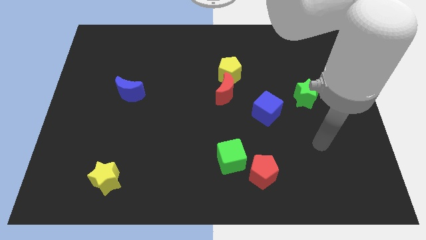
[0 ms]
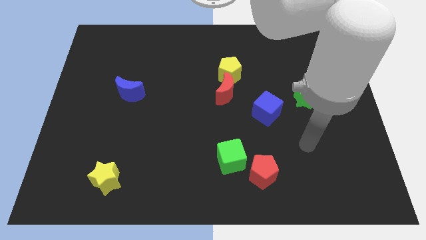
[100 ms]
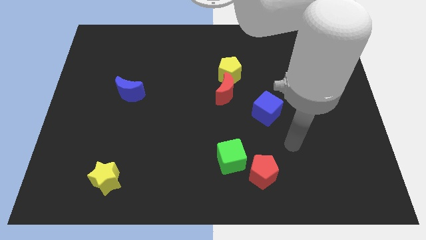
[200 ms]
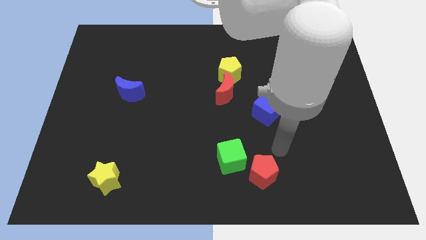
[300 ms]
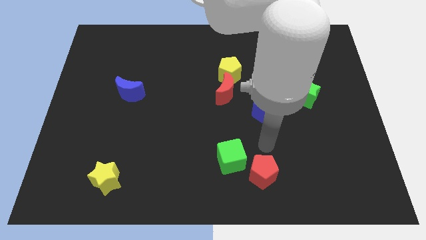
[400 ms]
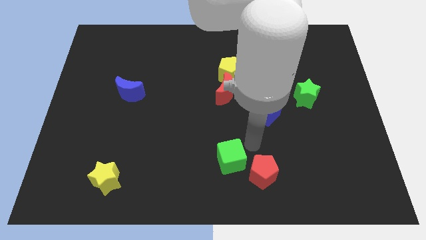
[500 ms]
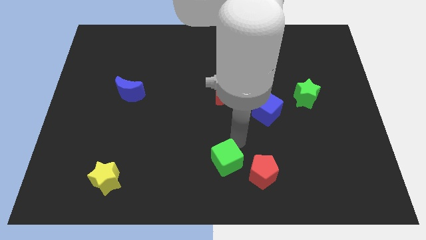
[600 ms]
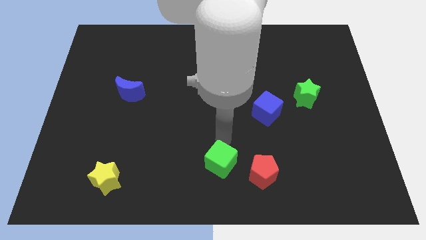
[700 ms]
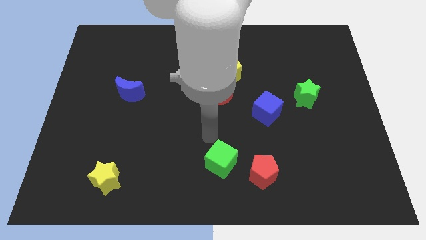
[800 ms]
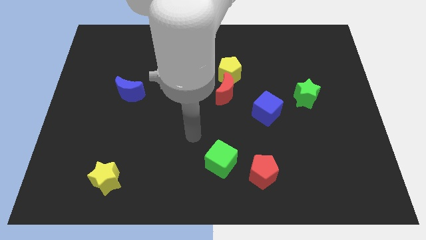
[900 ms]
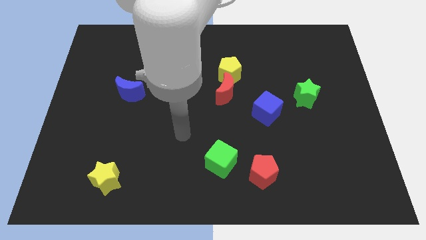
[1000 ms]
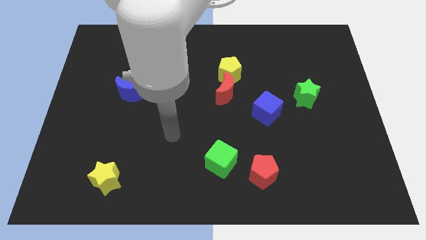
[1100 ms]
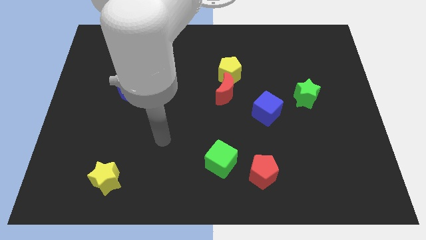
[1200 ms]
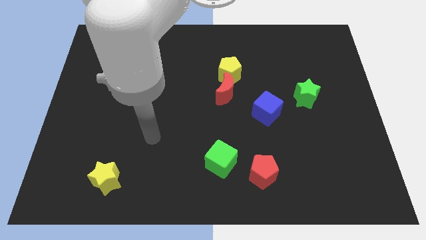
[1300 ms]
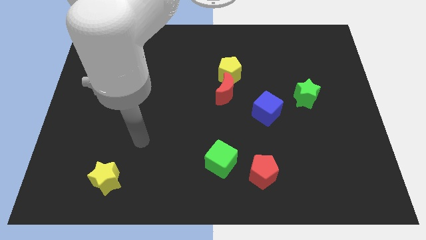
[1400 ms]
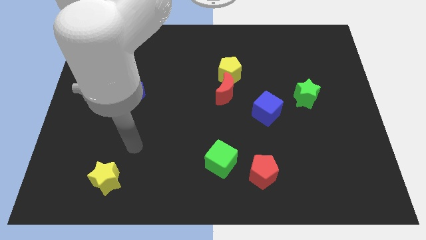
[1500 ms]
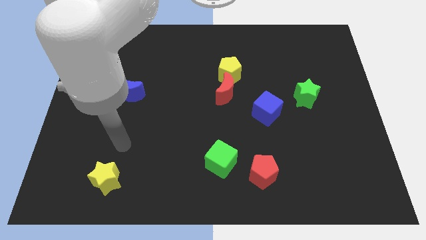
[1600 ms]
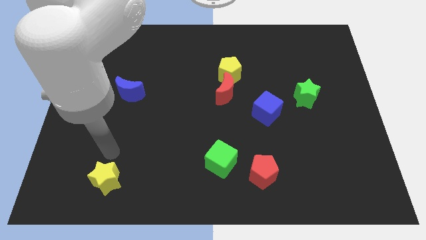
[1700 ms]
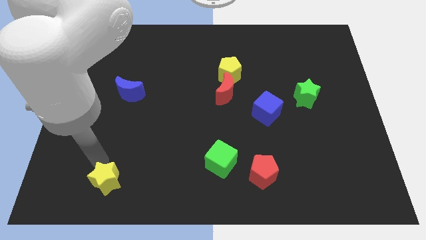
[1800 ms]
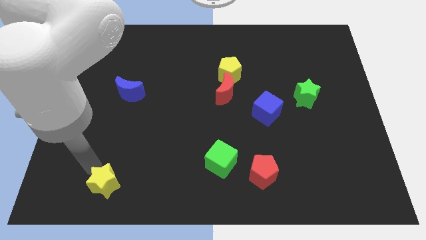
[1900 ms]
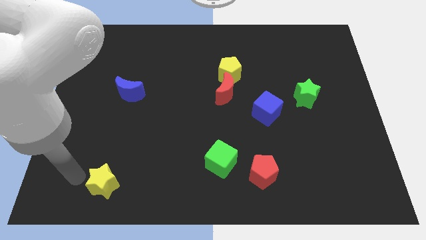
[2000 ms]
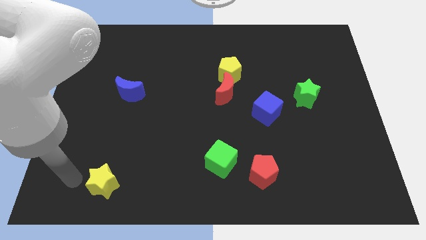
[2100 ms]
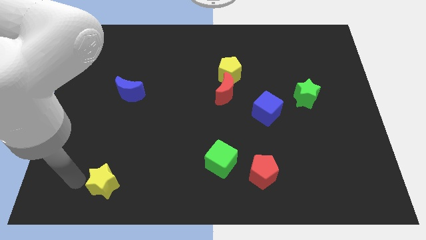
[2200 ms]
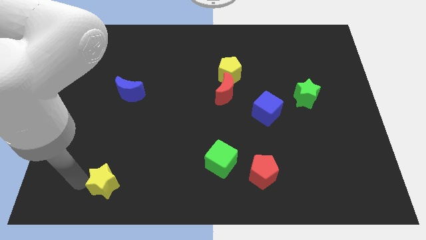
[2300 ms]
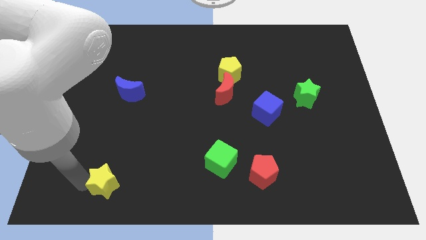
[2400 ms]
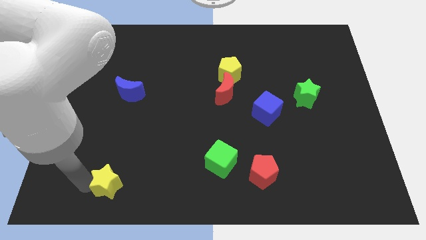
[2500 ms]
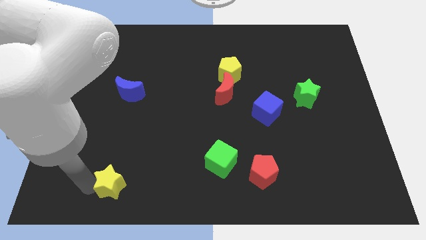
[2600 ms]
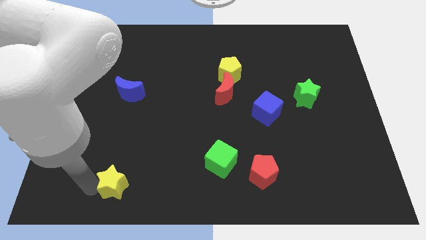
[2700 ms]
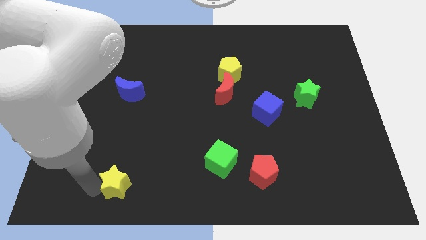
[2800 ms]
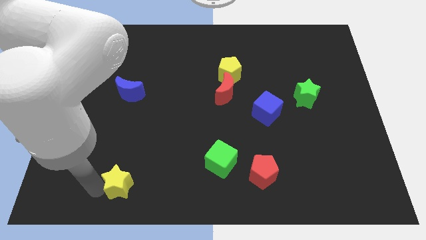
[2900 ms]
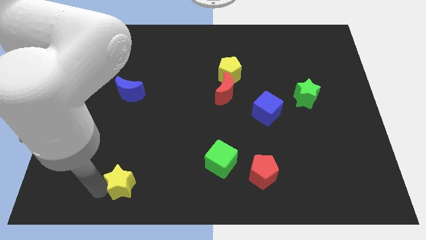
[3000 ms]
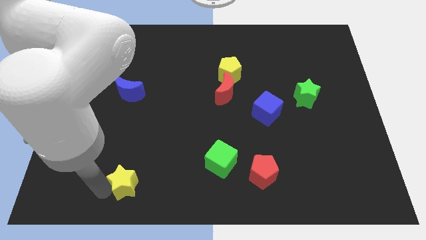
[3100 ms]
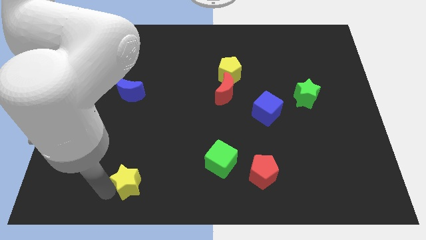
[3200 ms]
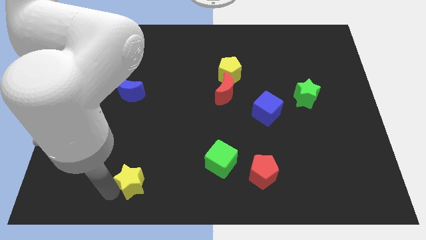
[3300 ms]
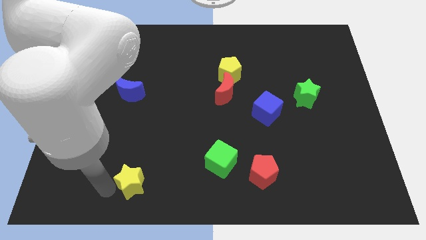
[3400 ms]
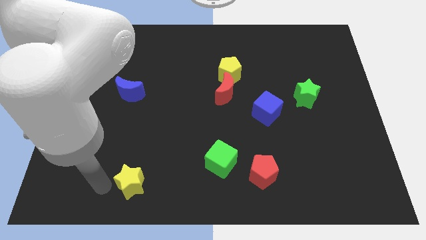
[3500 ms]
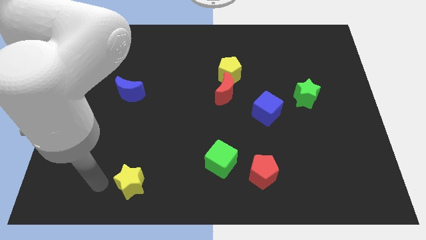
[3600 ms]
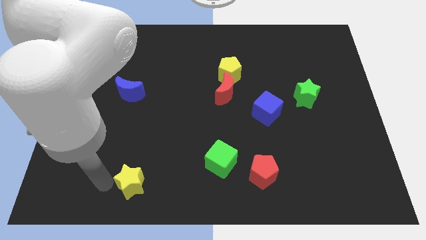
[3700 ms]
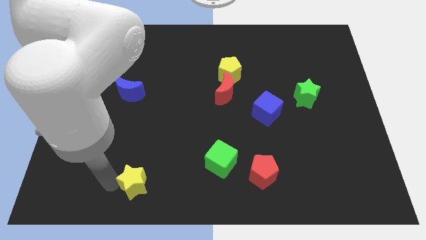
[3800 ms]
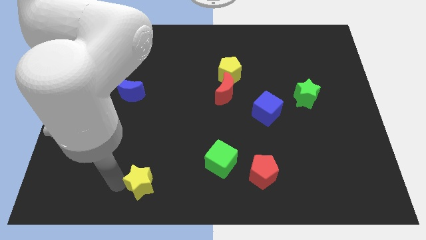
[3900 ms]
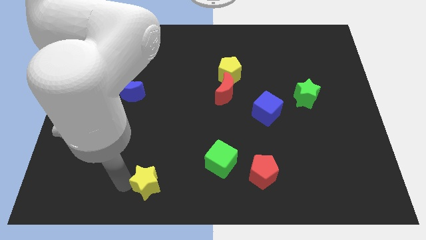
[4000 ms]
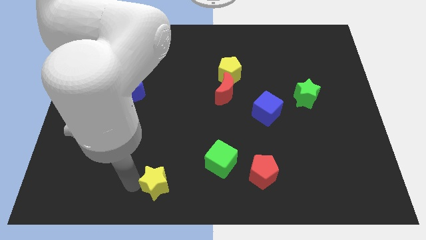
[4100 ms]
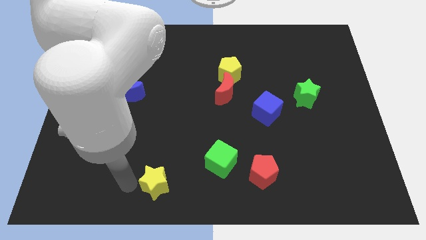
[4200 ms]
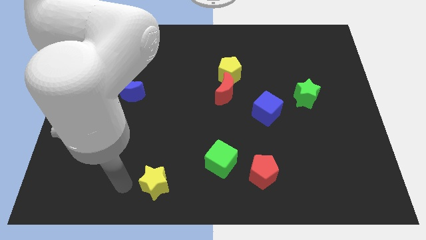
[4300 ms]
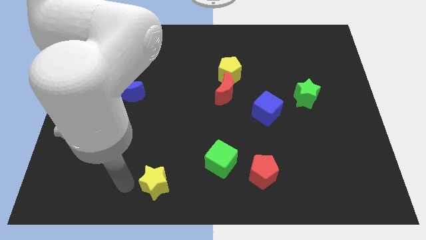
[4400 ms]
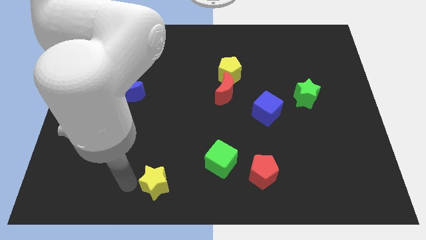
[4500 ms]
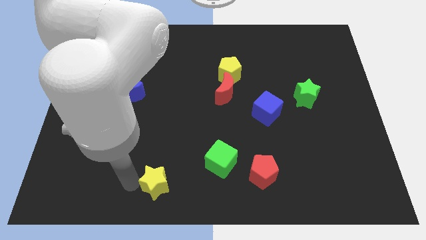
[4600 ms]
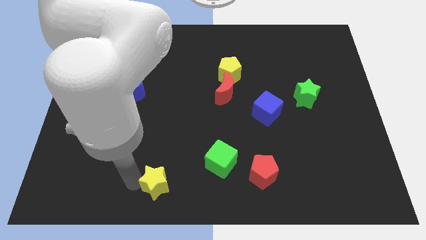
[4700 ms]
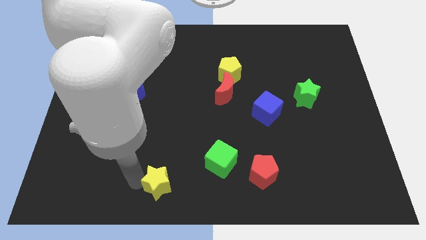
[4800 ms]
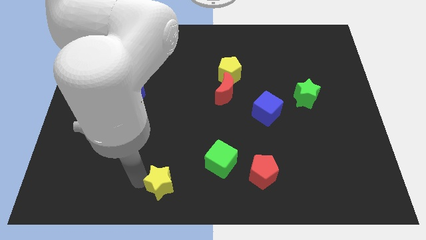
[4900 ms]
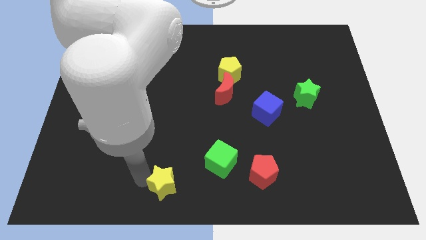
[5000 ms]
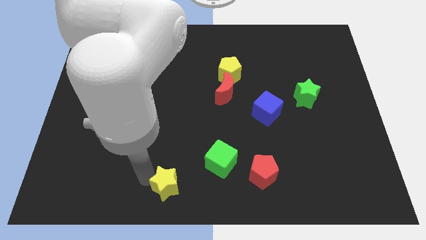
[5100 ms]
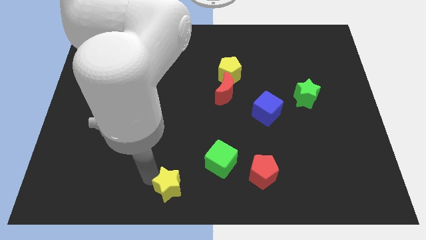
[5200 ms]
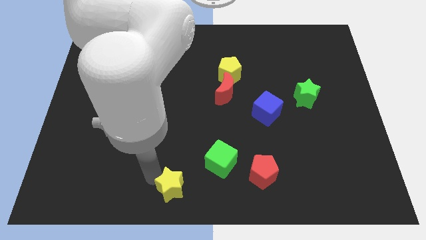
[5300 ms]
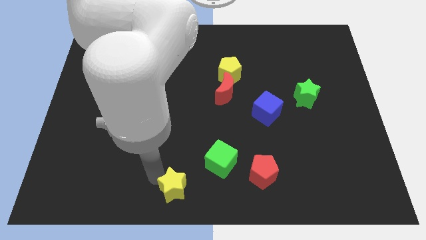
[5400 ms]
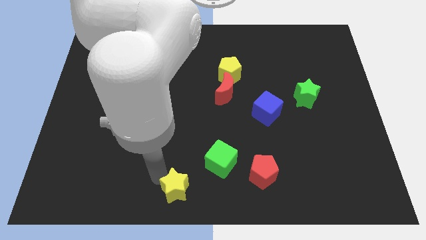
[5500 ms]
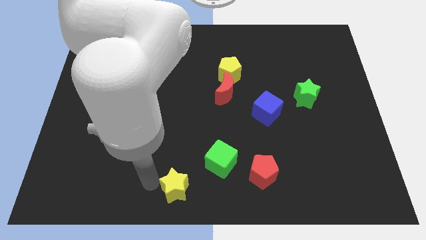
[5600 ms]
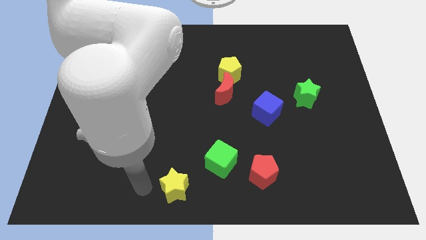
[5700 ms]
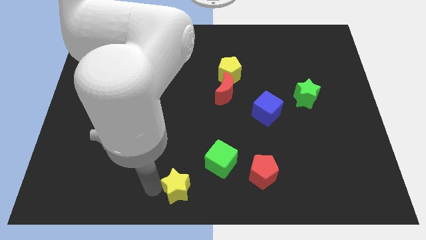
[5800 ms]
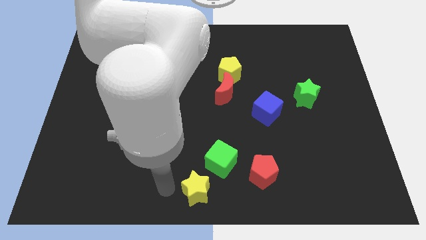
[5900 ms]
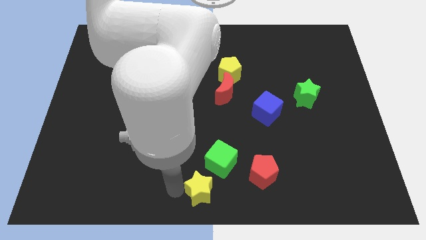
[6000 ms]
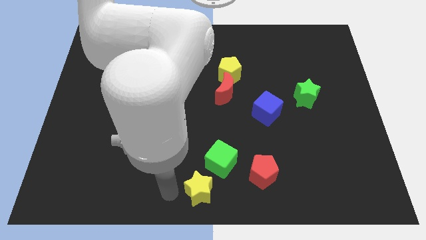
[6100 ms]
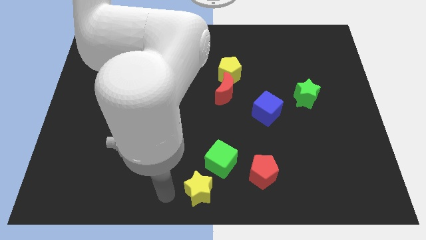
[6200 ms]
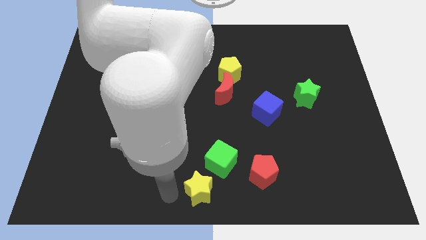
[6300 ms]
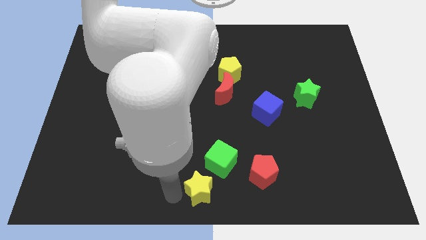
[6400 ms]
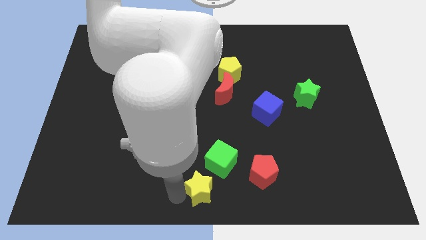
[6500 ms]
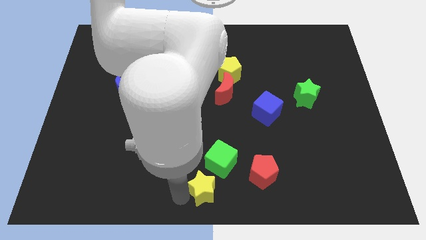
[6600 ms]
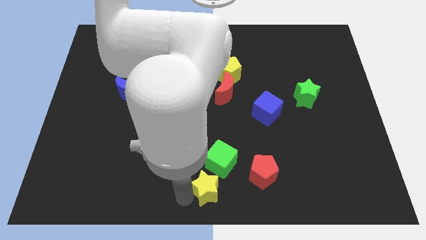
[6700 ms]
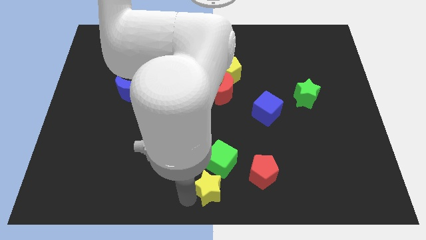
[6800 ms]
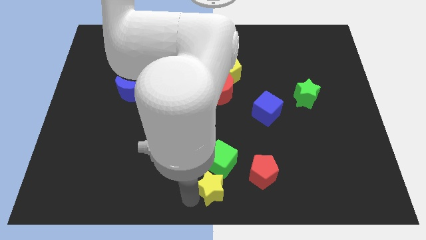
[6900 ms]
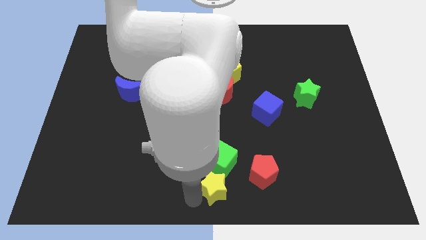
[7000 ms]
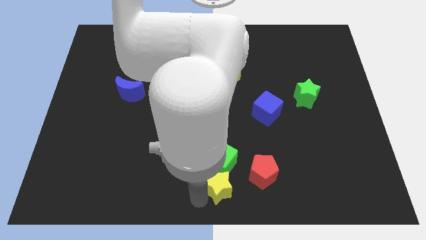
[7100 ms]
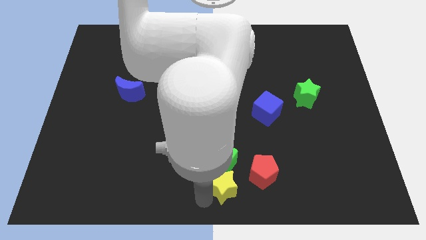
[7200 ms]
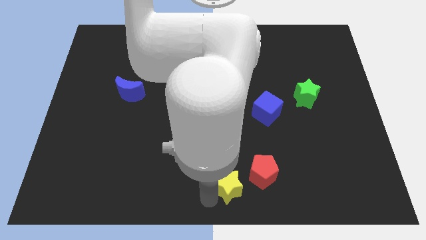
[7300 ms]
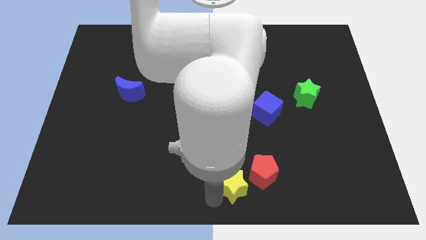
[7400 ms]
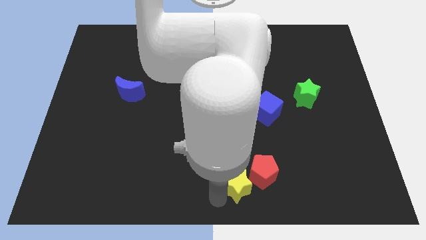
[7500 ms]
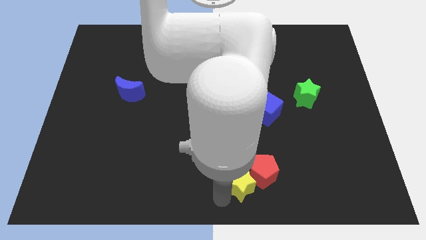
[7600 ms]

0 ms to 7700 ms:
push the yellow star towards the red pentagon

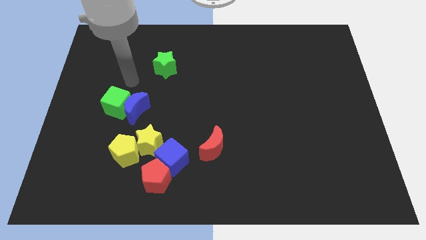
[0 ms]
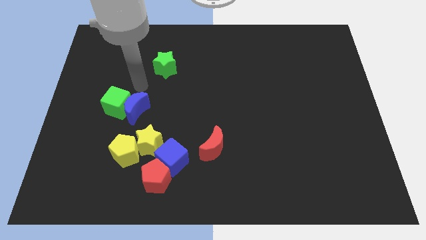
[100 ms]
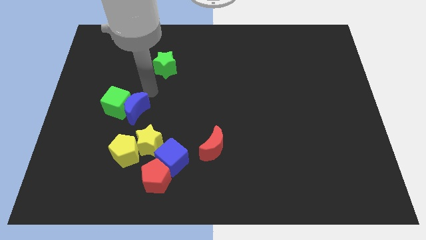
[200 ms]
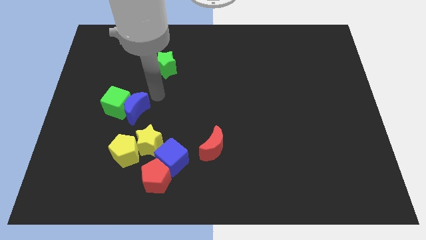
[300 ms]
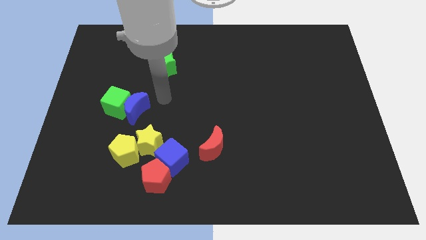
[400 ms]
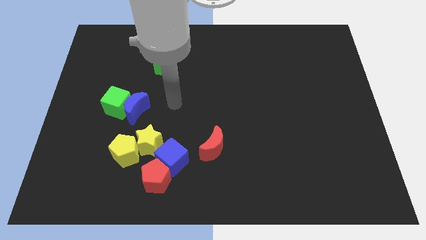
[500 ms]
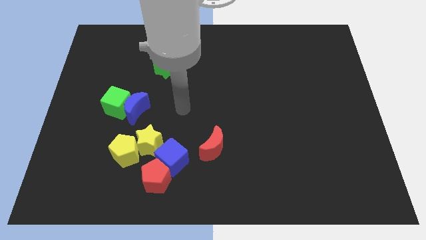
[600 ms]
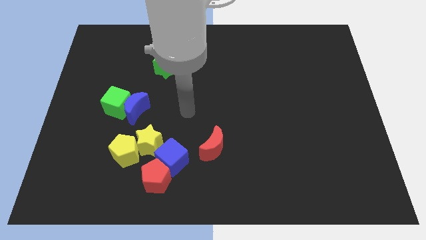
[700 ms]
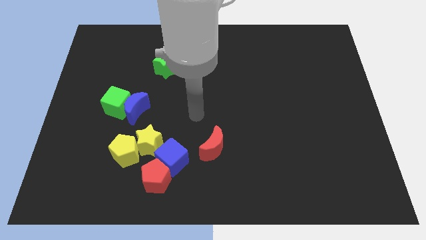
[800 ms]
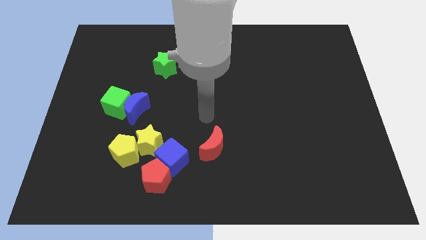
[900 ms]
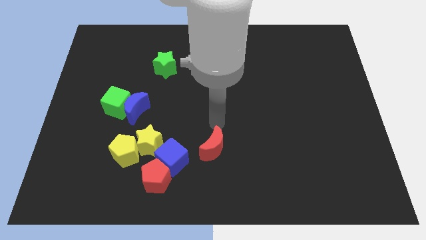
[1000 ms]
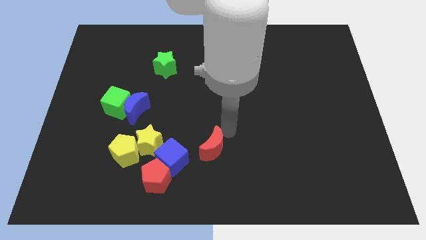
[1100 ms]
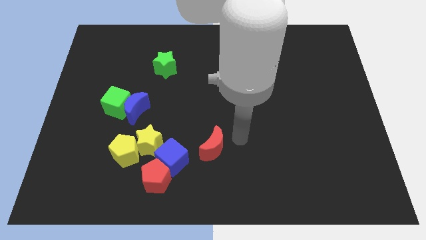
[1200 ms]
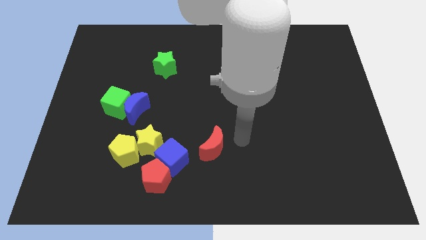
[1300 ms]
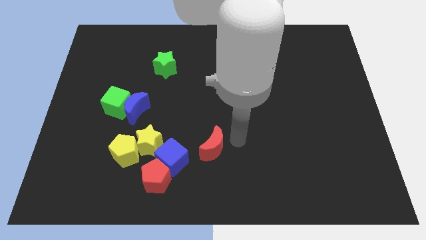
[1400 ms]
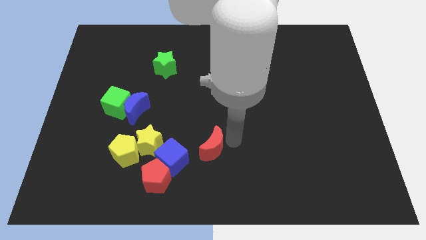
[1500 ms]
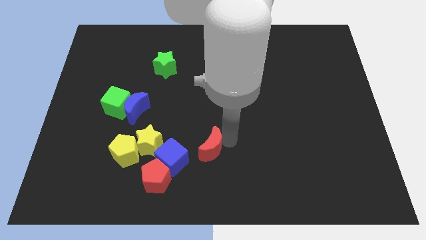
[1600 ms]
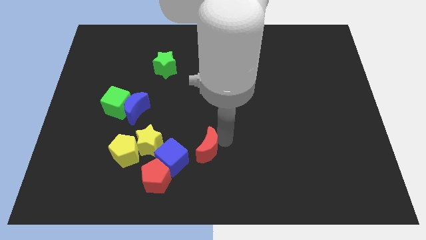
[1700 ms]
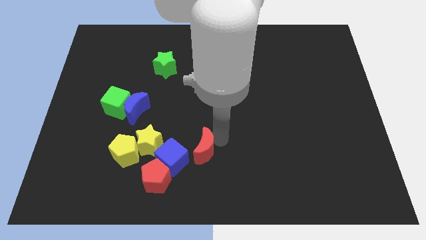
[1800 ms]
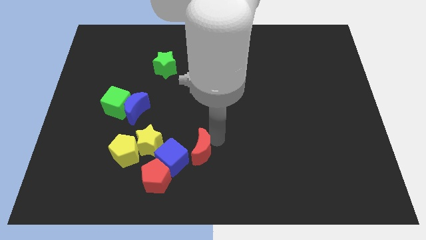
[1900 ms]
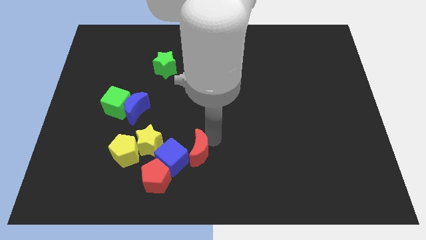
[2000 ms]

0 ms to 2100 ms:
push the red moon towards the blue cube
